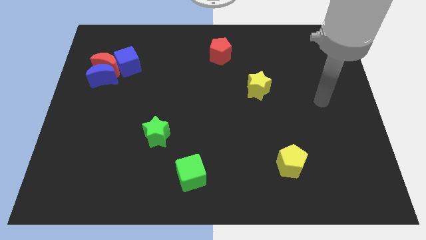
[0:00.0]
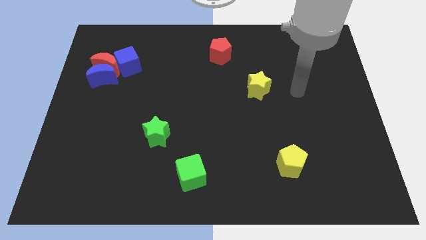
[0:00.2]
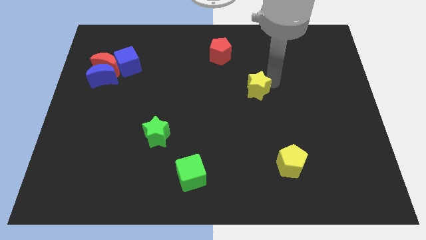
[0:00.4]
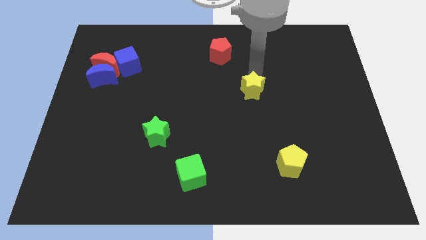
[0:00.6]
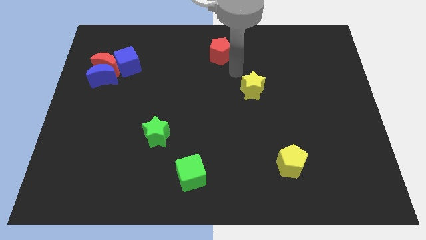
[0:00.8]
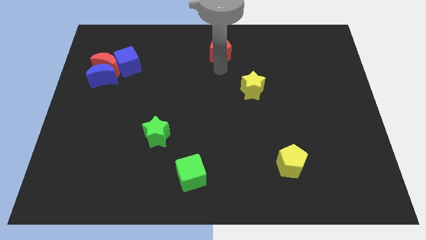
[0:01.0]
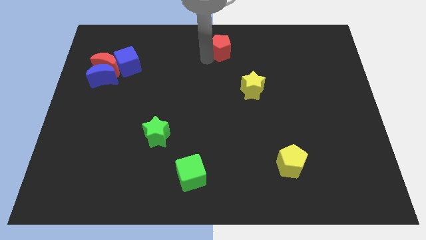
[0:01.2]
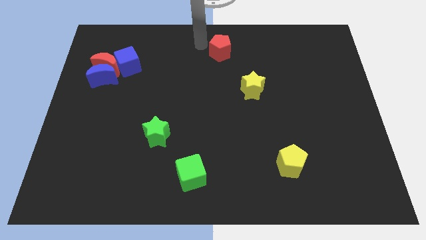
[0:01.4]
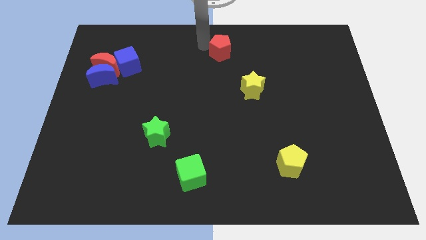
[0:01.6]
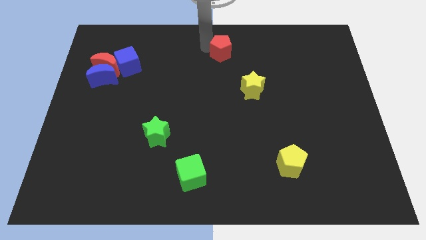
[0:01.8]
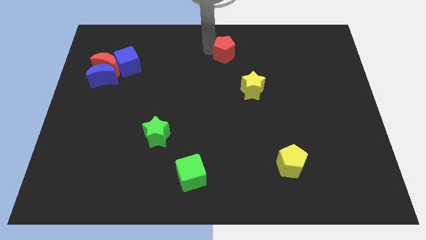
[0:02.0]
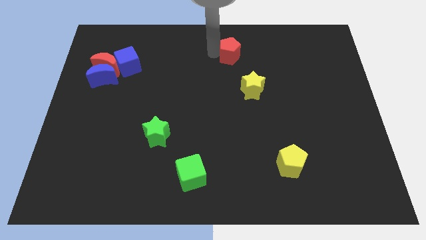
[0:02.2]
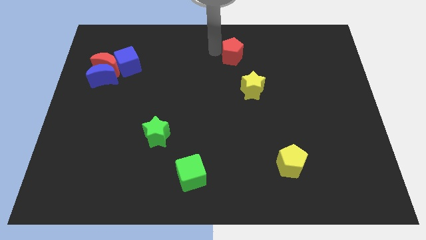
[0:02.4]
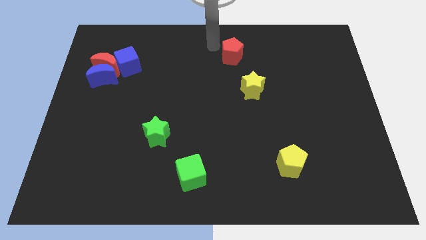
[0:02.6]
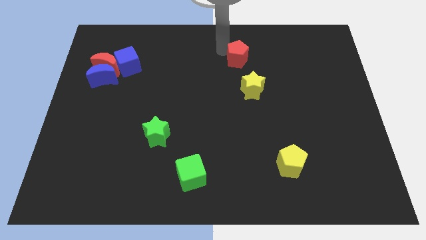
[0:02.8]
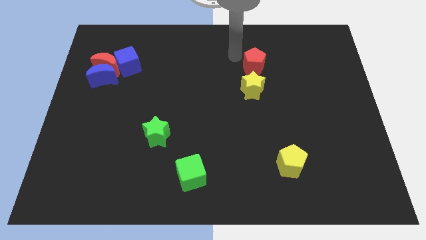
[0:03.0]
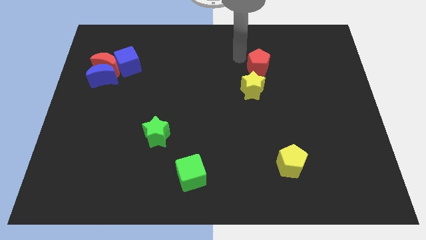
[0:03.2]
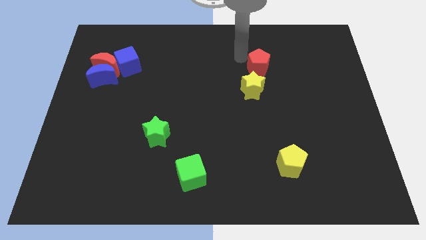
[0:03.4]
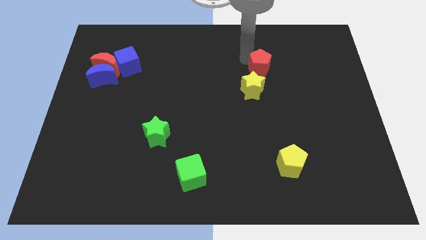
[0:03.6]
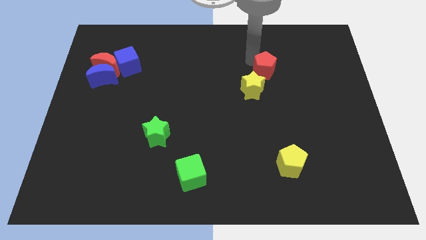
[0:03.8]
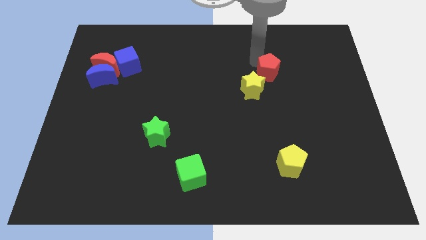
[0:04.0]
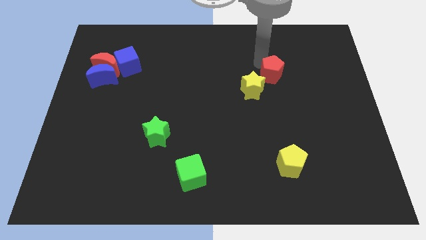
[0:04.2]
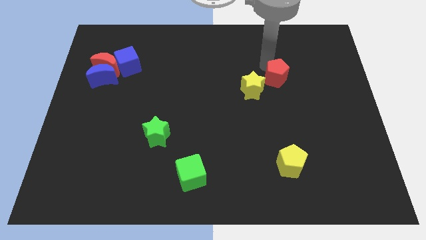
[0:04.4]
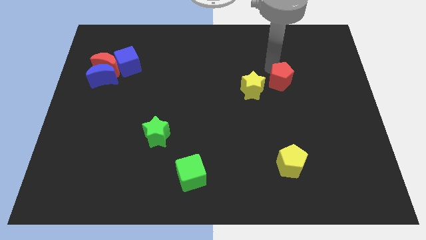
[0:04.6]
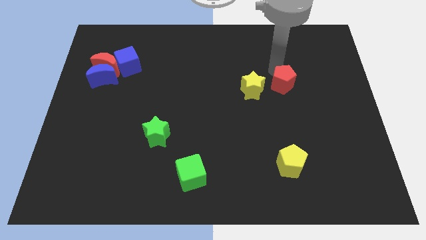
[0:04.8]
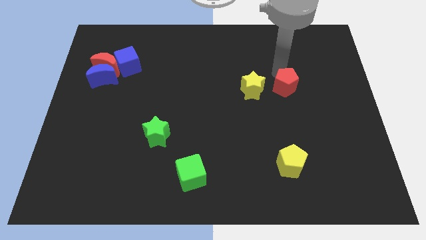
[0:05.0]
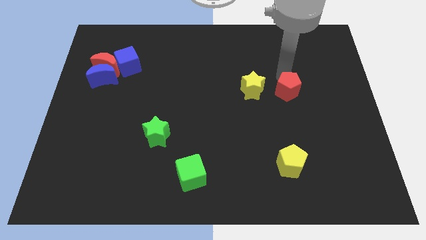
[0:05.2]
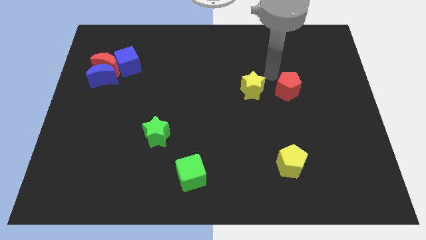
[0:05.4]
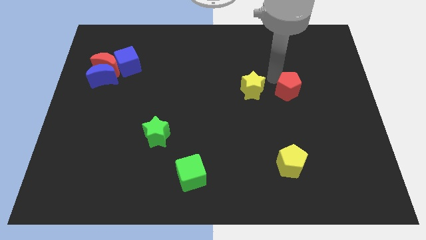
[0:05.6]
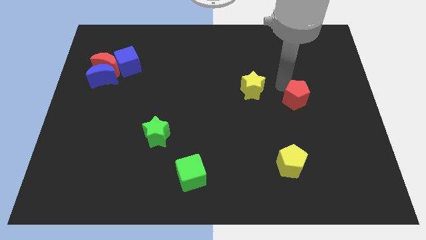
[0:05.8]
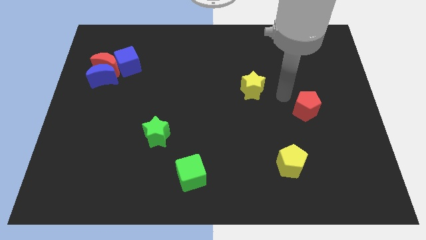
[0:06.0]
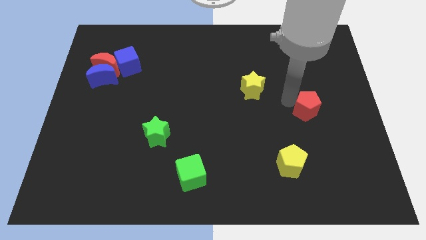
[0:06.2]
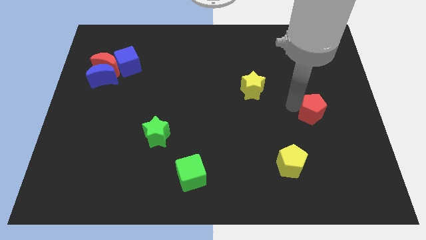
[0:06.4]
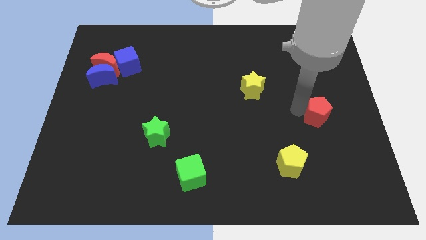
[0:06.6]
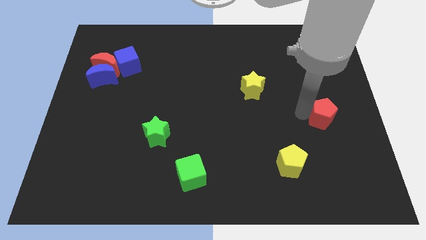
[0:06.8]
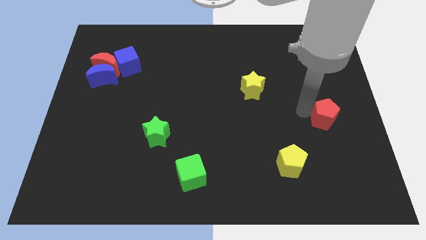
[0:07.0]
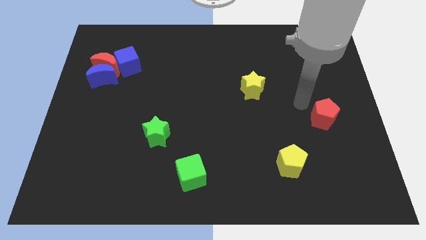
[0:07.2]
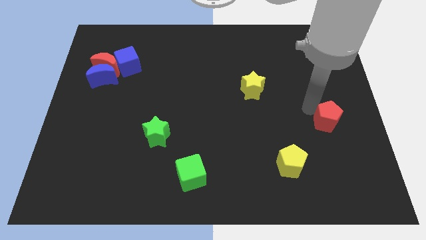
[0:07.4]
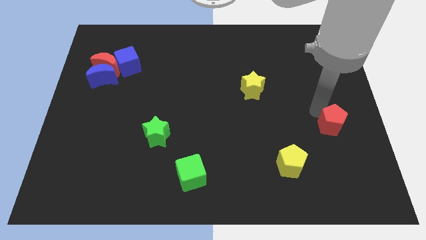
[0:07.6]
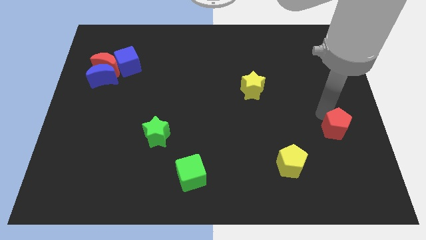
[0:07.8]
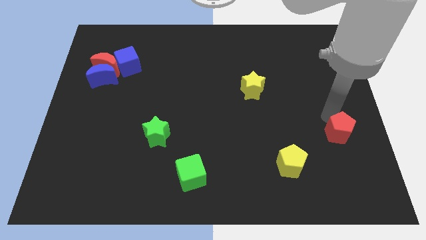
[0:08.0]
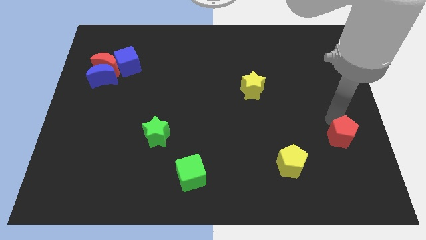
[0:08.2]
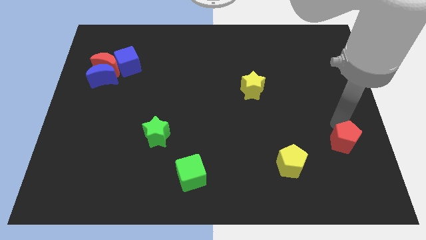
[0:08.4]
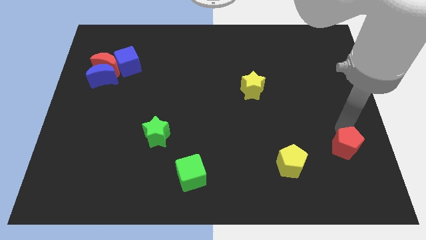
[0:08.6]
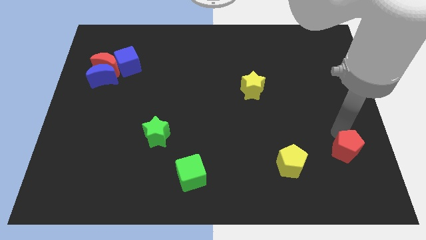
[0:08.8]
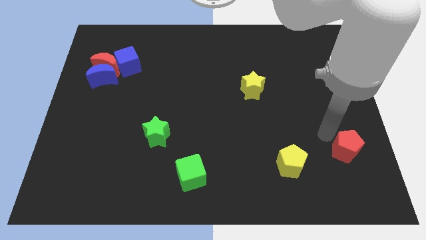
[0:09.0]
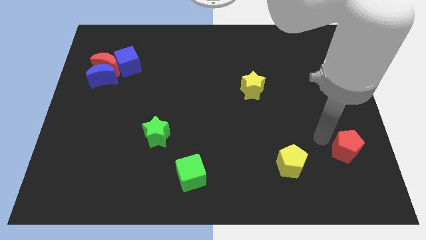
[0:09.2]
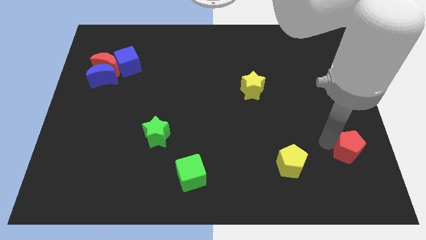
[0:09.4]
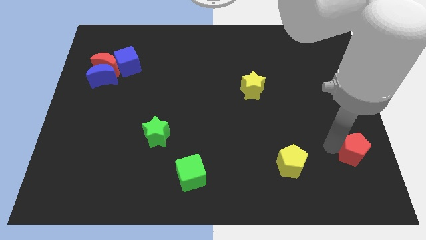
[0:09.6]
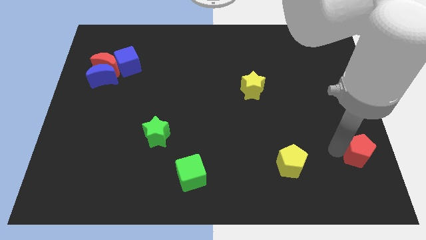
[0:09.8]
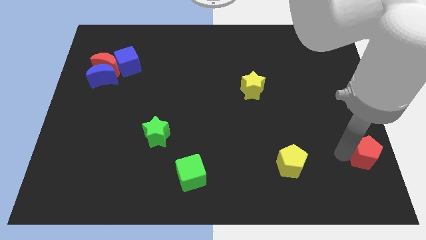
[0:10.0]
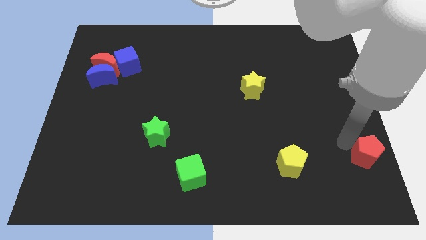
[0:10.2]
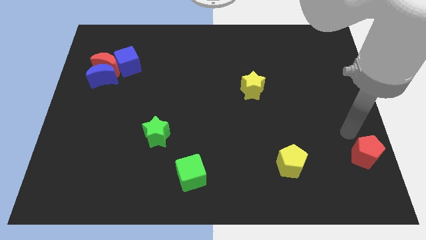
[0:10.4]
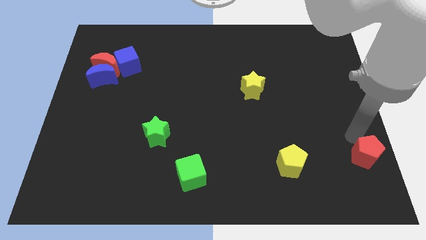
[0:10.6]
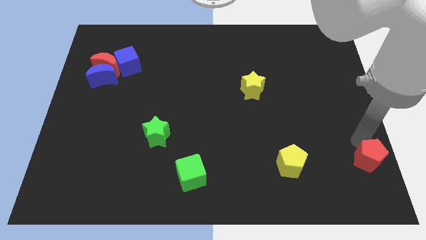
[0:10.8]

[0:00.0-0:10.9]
put the red pentagon to the bottom right

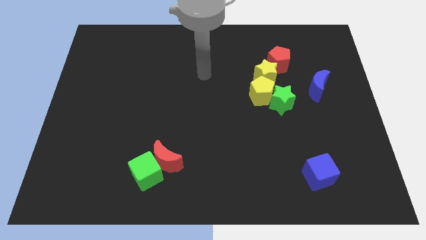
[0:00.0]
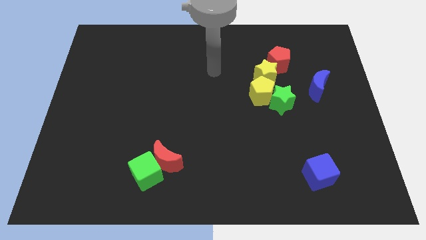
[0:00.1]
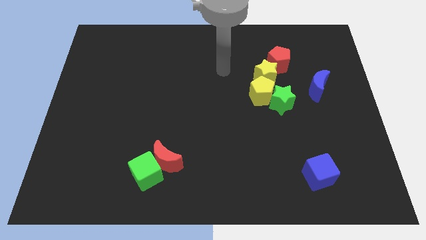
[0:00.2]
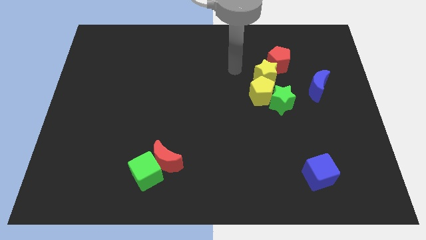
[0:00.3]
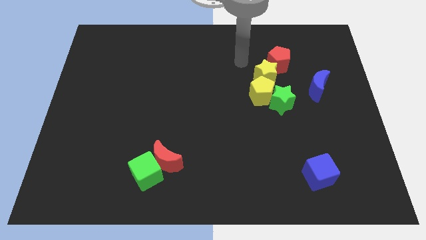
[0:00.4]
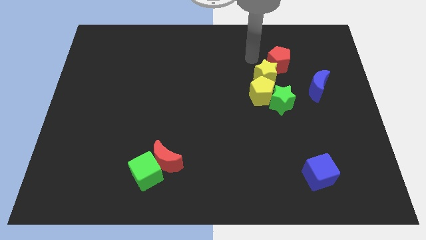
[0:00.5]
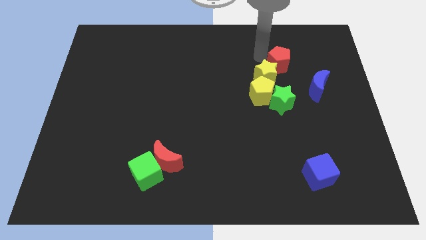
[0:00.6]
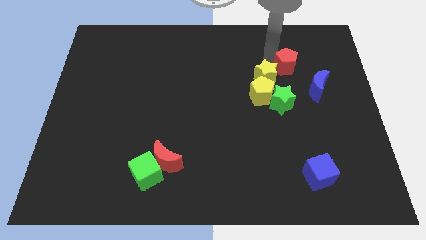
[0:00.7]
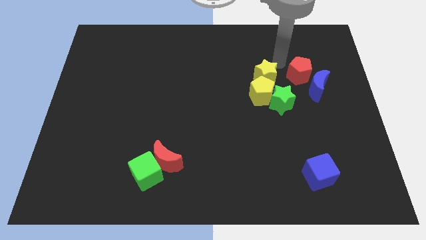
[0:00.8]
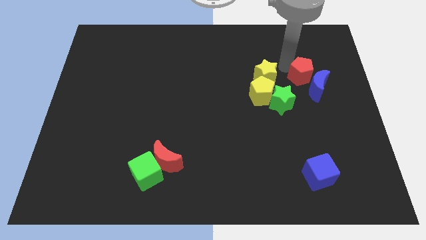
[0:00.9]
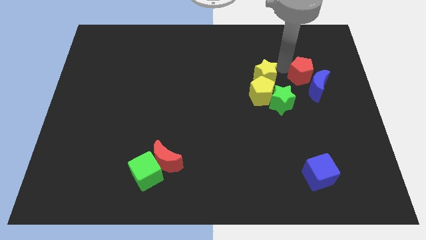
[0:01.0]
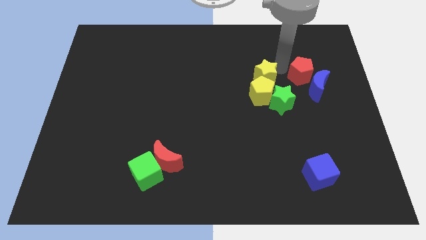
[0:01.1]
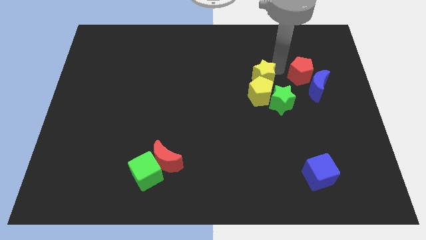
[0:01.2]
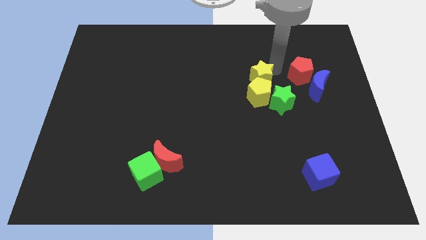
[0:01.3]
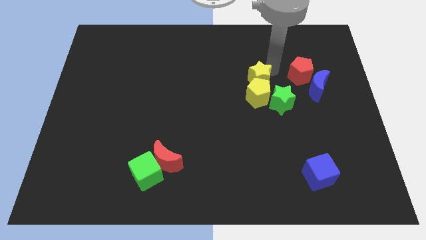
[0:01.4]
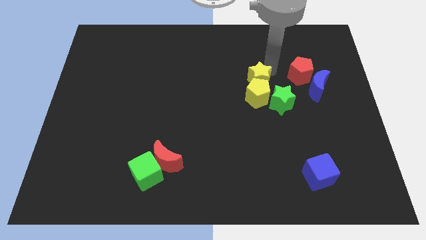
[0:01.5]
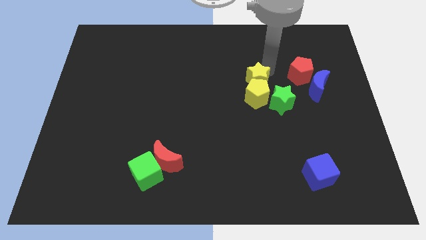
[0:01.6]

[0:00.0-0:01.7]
push the yellow star to the middle

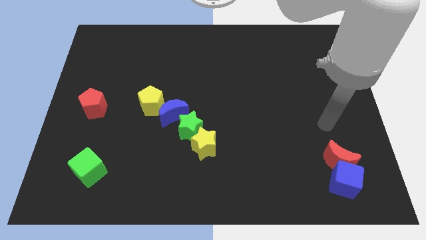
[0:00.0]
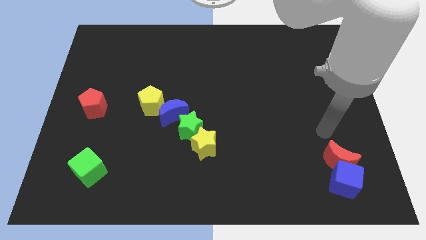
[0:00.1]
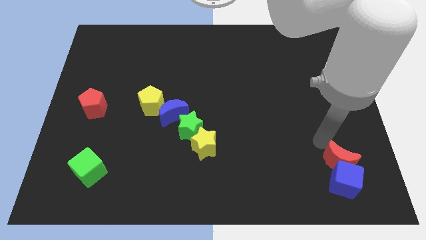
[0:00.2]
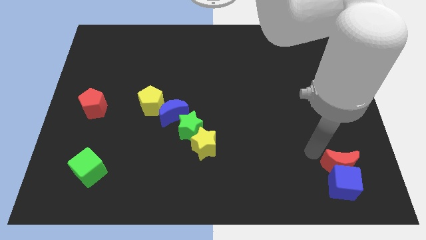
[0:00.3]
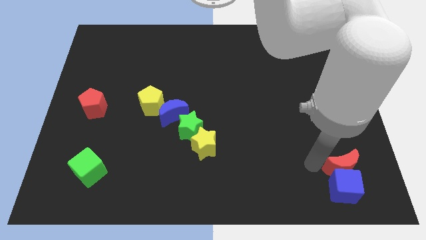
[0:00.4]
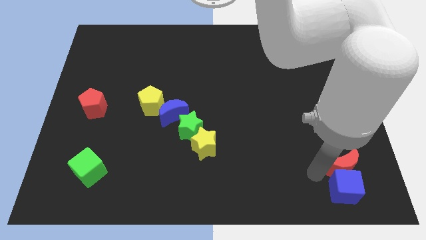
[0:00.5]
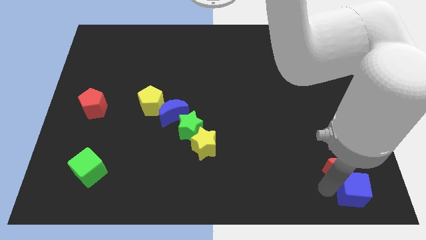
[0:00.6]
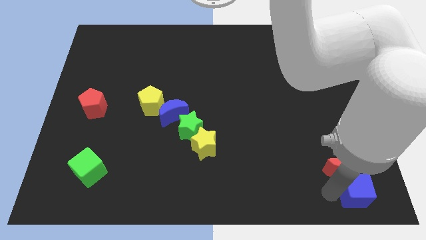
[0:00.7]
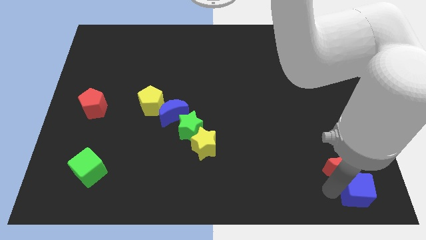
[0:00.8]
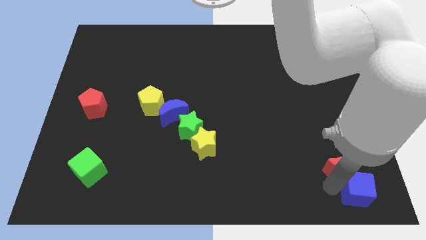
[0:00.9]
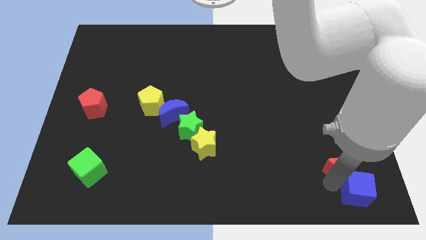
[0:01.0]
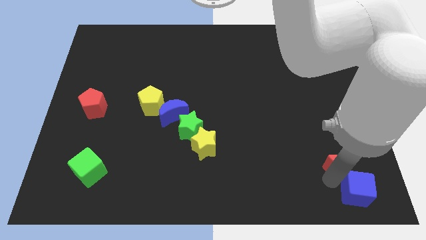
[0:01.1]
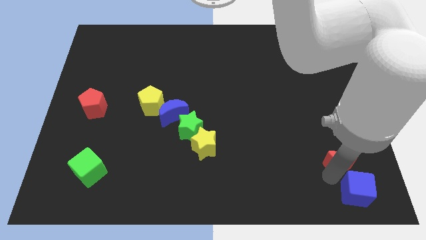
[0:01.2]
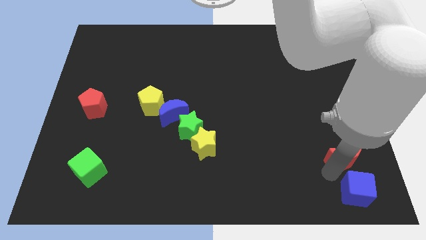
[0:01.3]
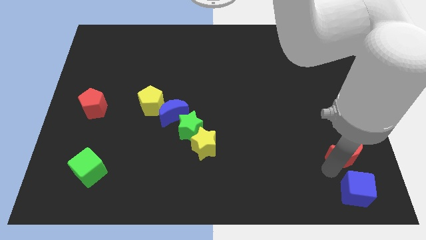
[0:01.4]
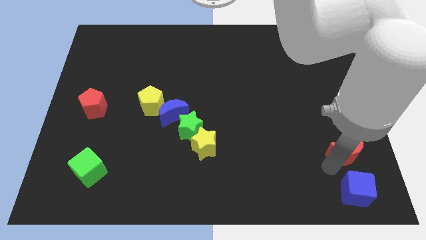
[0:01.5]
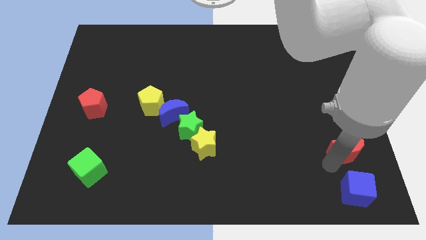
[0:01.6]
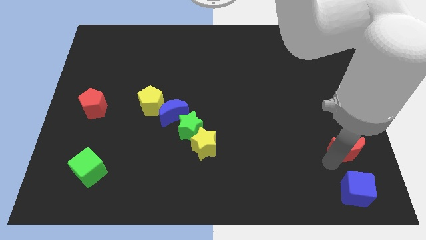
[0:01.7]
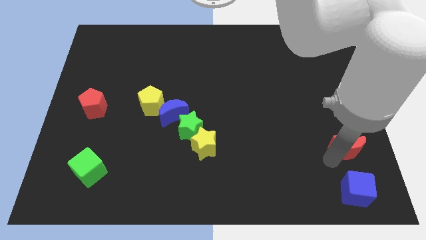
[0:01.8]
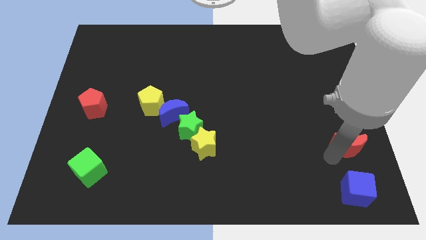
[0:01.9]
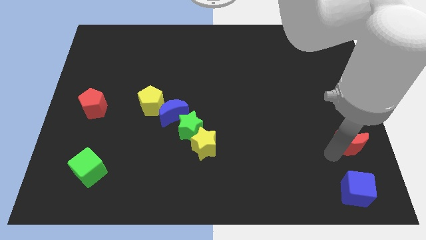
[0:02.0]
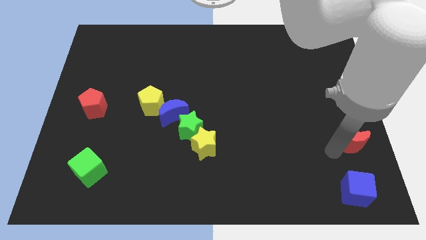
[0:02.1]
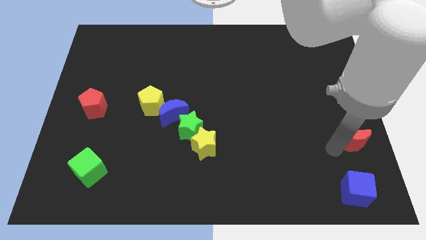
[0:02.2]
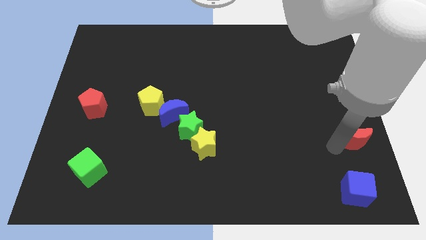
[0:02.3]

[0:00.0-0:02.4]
move the red moon to the right side
